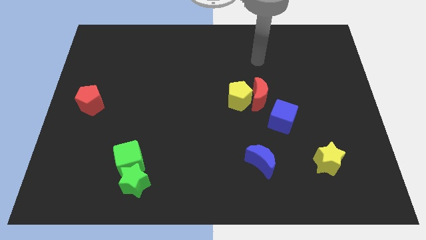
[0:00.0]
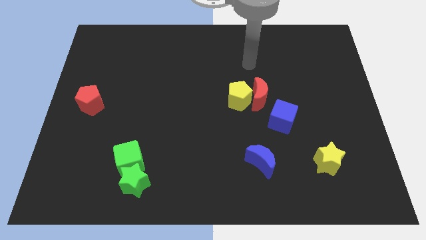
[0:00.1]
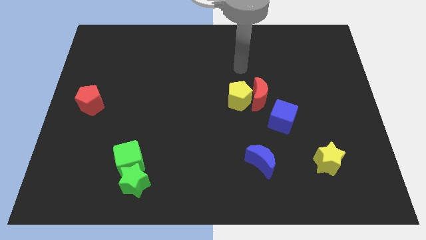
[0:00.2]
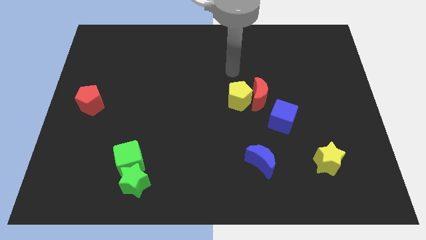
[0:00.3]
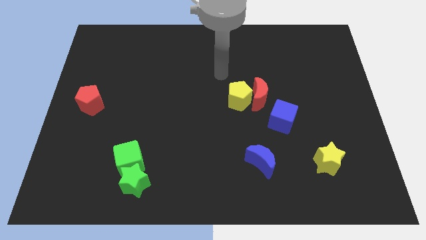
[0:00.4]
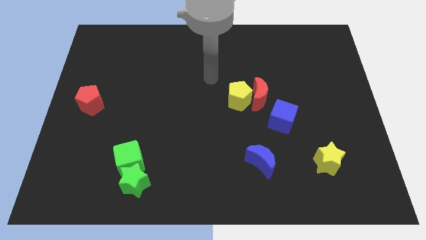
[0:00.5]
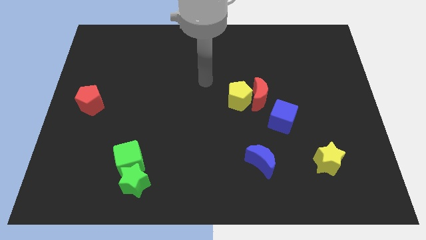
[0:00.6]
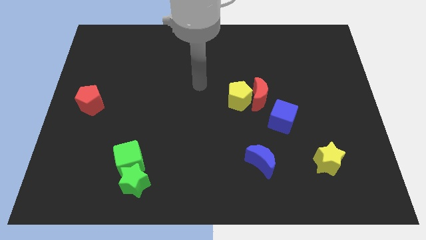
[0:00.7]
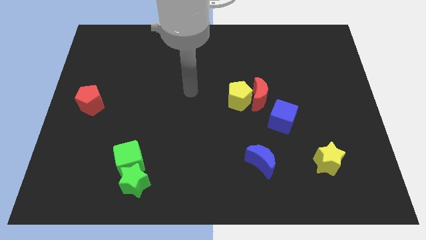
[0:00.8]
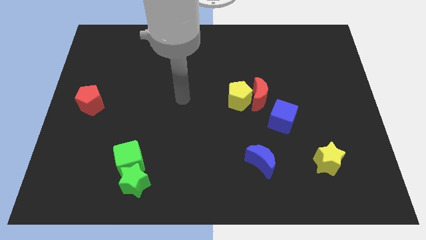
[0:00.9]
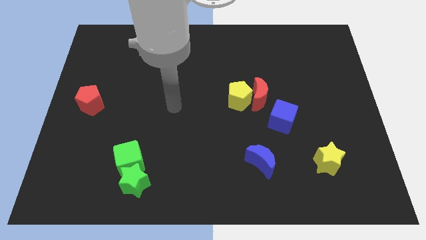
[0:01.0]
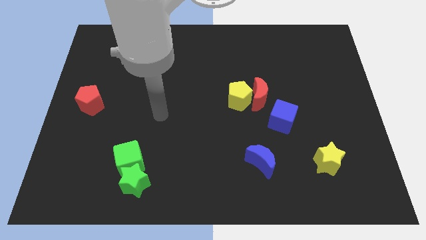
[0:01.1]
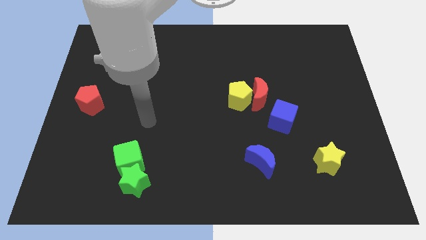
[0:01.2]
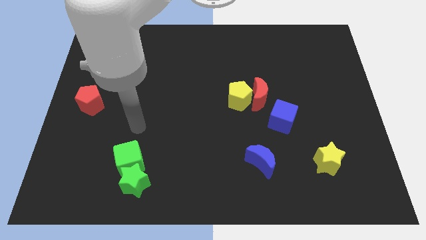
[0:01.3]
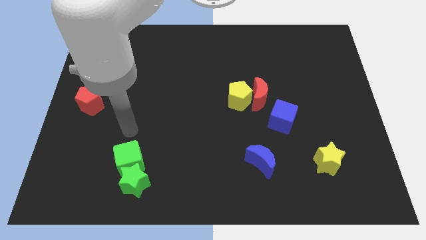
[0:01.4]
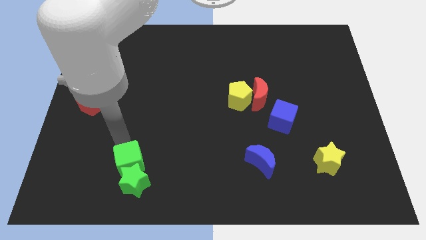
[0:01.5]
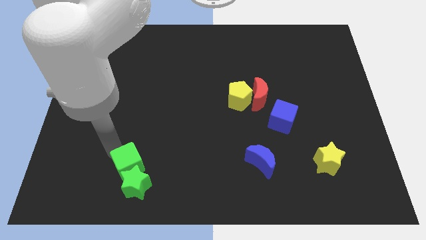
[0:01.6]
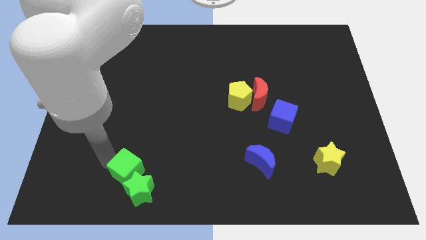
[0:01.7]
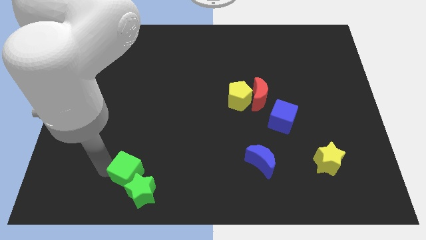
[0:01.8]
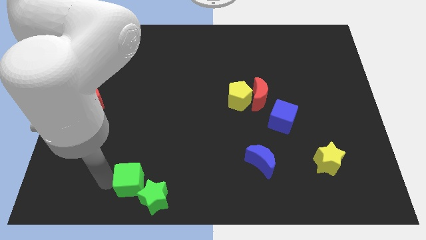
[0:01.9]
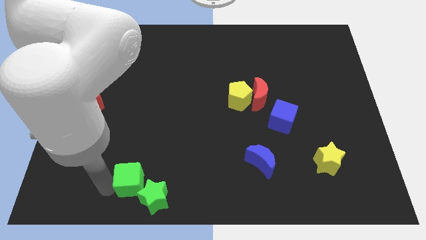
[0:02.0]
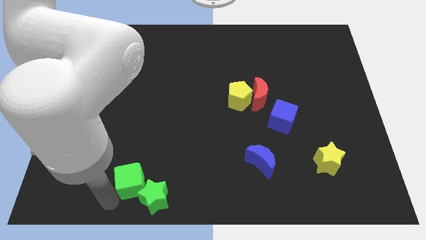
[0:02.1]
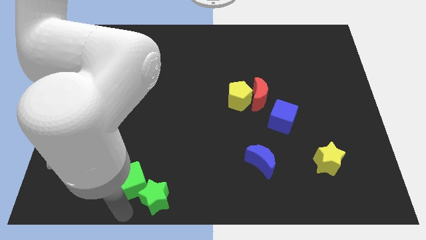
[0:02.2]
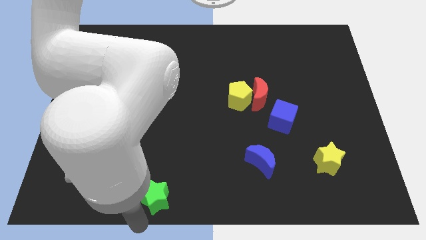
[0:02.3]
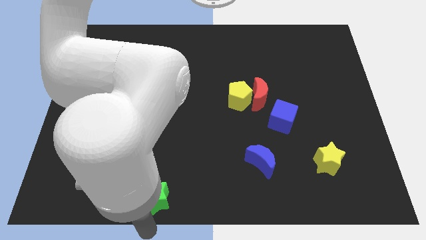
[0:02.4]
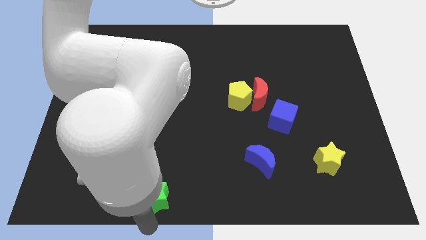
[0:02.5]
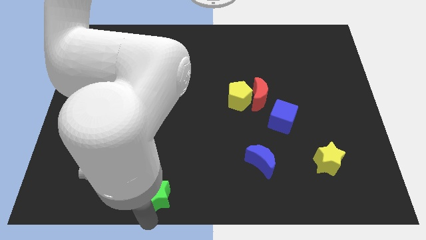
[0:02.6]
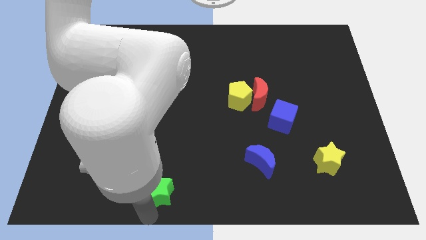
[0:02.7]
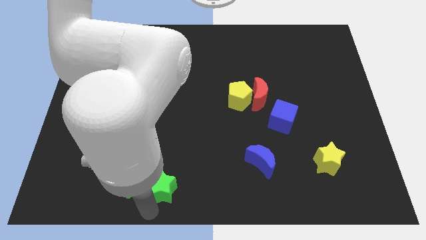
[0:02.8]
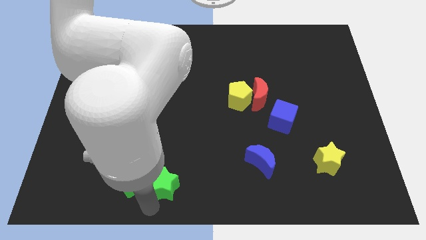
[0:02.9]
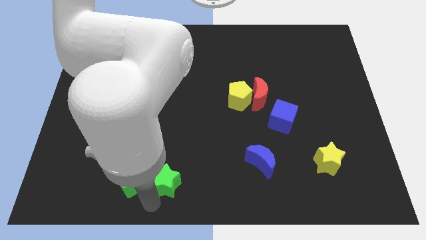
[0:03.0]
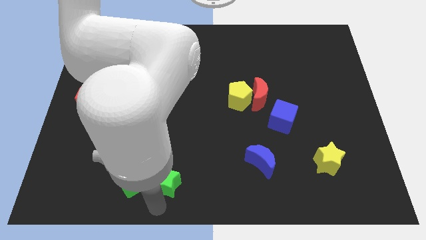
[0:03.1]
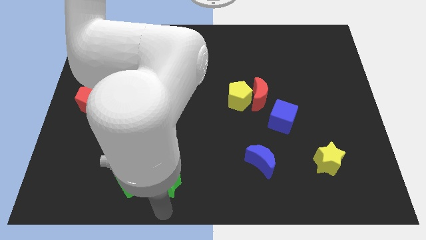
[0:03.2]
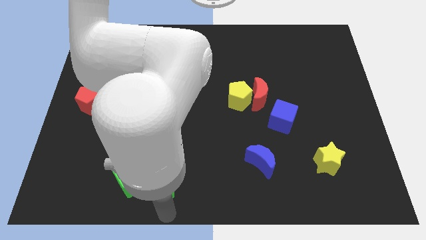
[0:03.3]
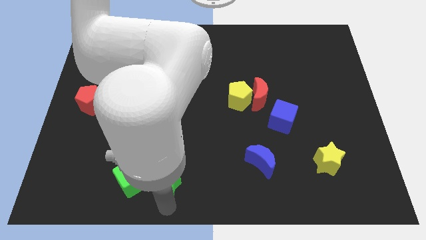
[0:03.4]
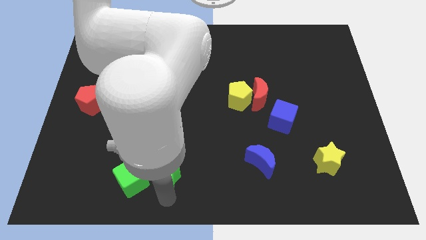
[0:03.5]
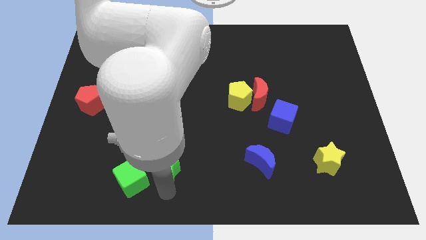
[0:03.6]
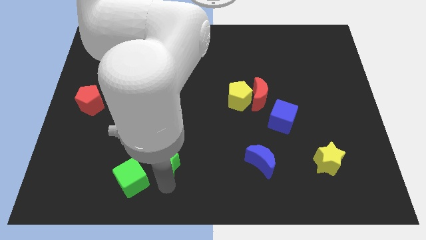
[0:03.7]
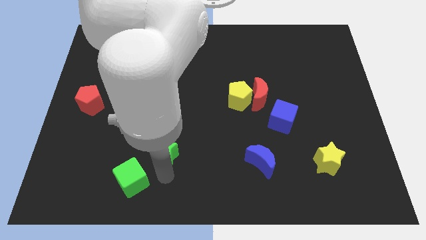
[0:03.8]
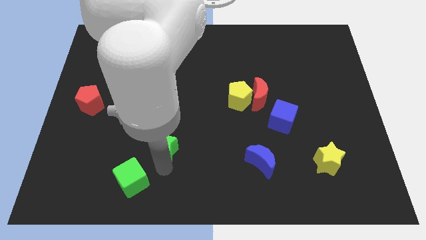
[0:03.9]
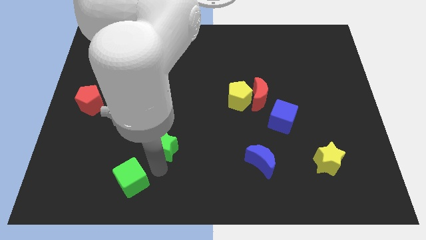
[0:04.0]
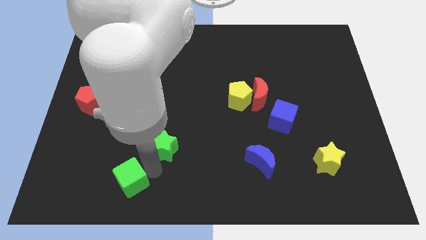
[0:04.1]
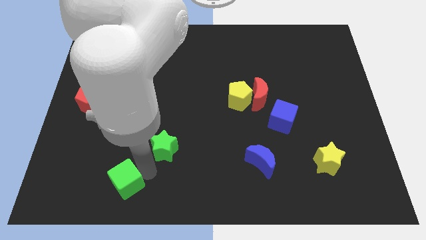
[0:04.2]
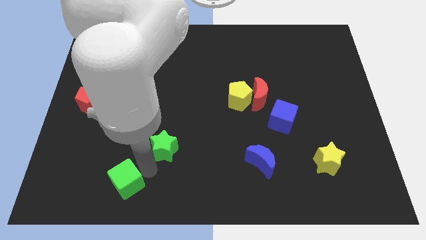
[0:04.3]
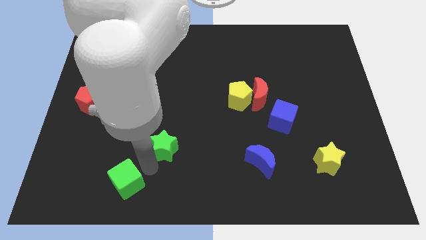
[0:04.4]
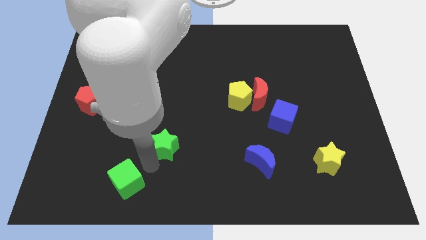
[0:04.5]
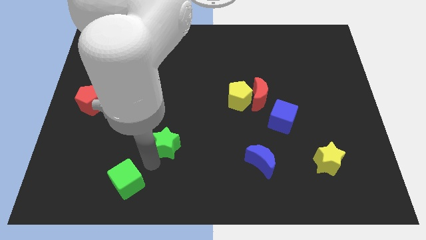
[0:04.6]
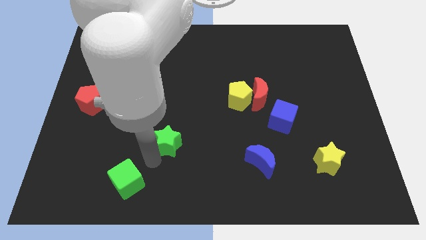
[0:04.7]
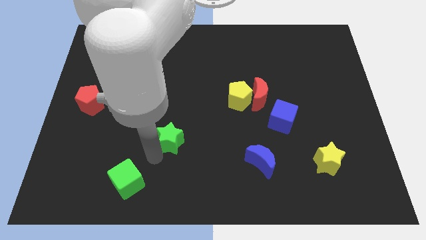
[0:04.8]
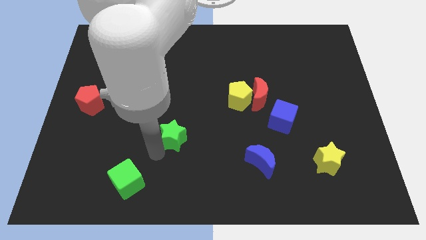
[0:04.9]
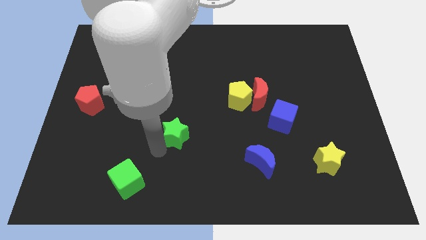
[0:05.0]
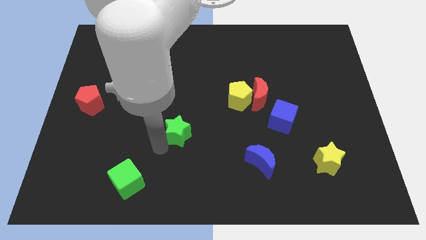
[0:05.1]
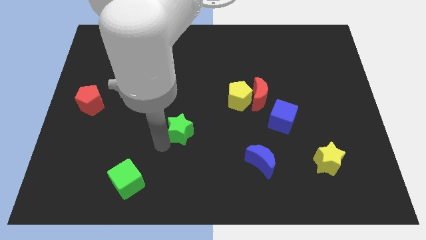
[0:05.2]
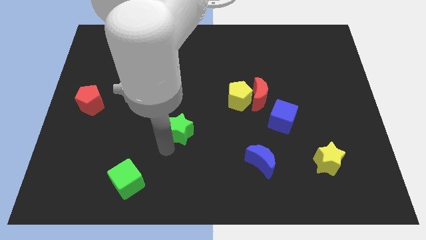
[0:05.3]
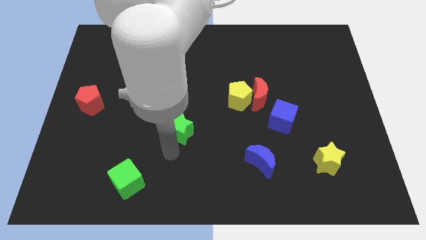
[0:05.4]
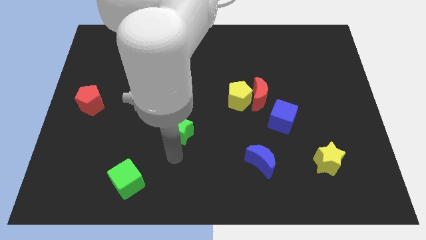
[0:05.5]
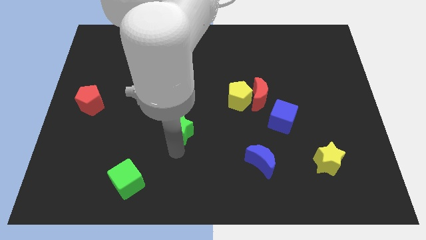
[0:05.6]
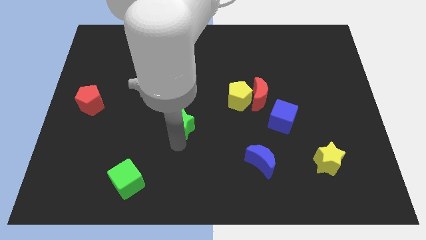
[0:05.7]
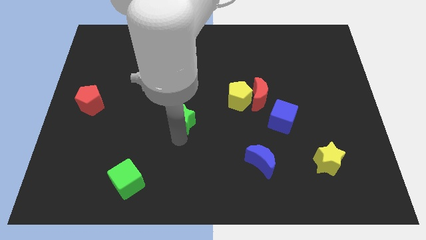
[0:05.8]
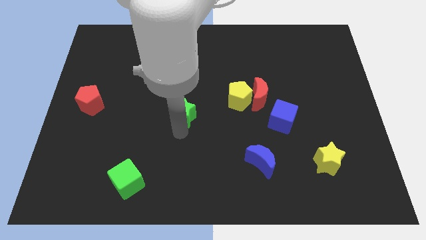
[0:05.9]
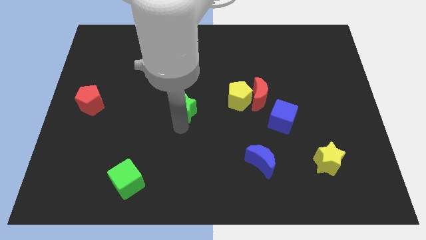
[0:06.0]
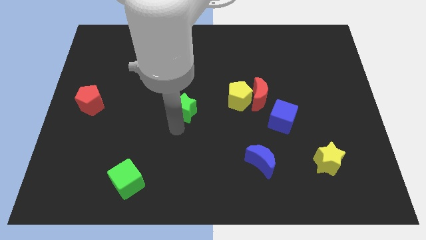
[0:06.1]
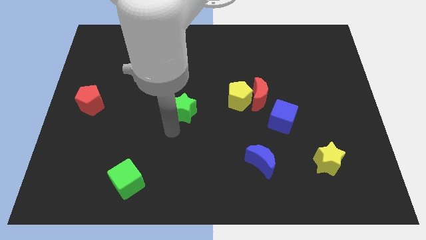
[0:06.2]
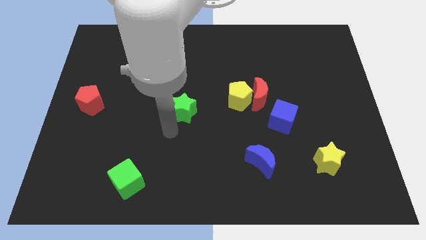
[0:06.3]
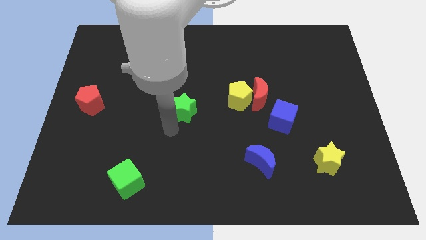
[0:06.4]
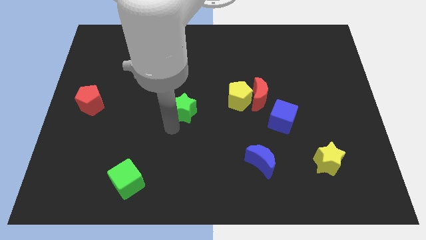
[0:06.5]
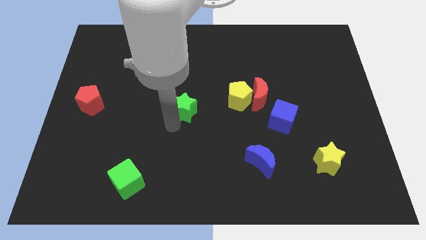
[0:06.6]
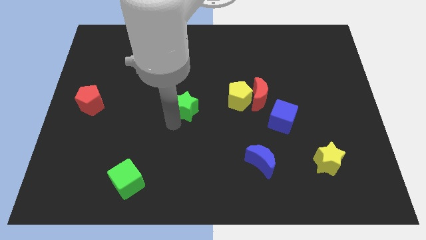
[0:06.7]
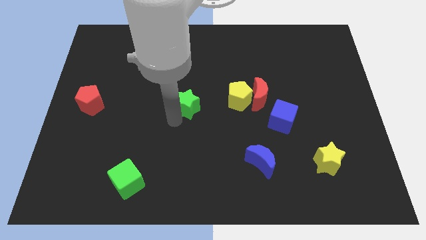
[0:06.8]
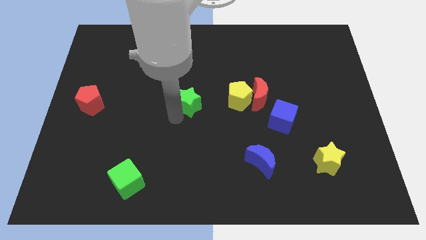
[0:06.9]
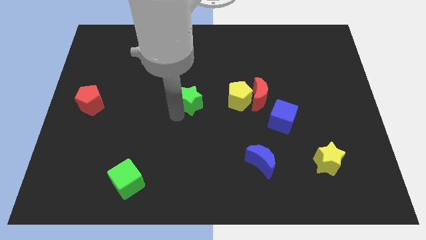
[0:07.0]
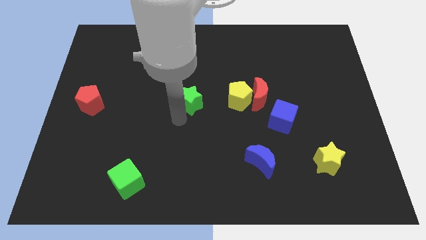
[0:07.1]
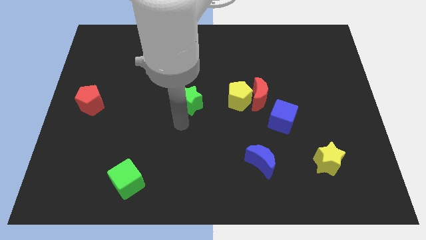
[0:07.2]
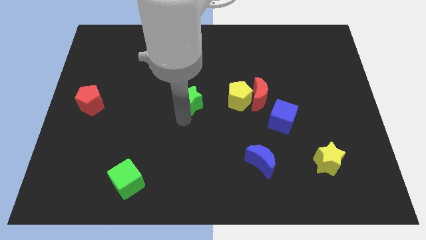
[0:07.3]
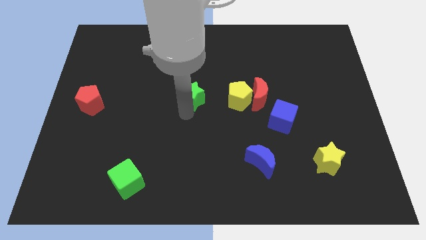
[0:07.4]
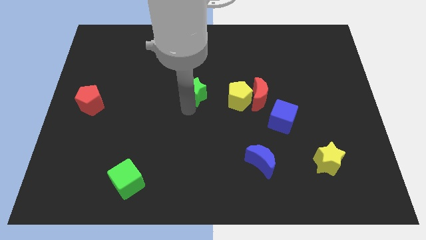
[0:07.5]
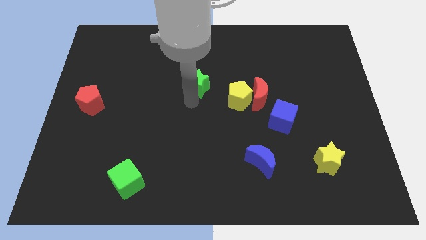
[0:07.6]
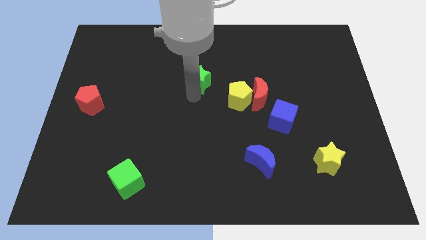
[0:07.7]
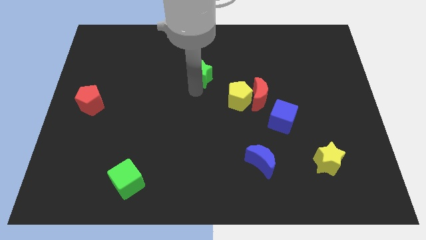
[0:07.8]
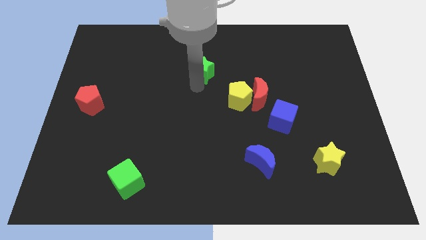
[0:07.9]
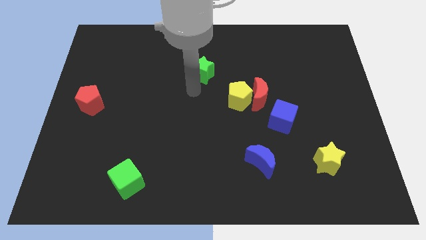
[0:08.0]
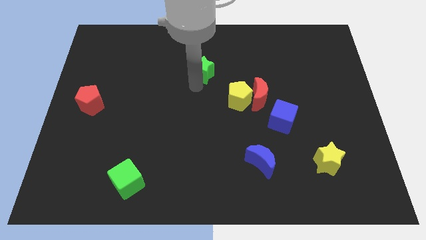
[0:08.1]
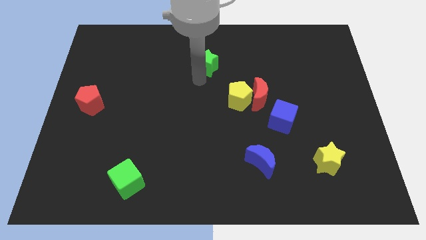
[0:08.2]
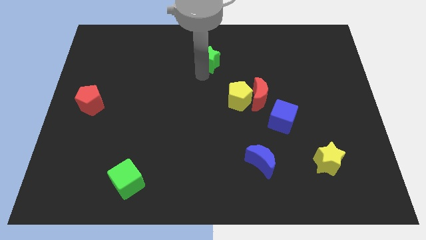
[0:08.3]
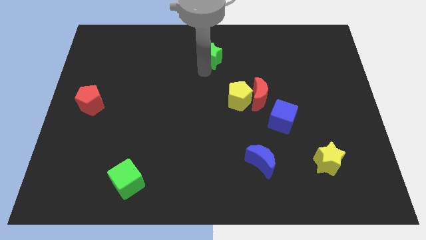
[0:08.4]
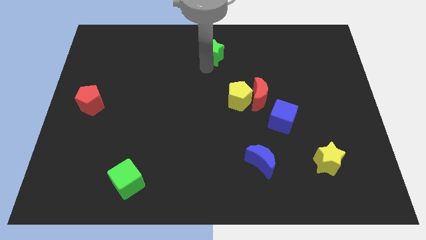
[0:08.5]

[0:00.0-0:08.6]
slide the green star to the top
